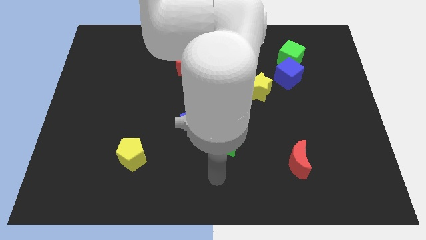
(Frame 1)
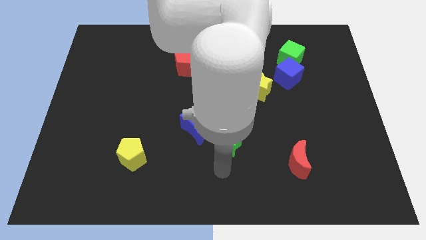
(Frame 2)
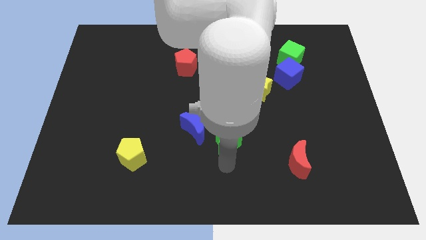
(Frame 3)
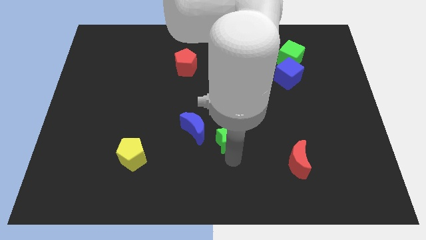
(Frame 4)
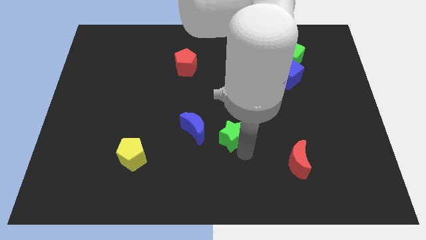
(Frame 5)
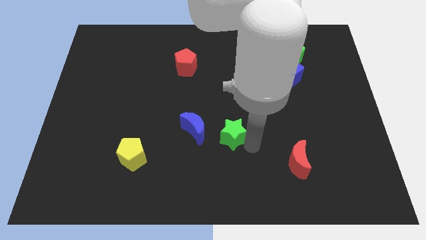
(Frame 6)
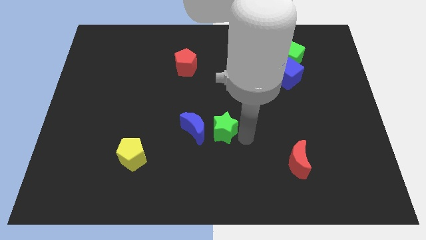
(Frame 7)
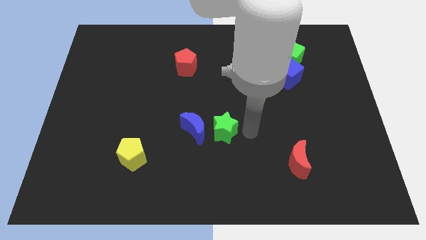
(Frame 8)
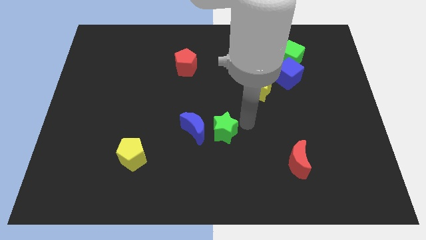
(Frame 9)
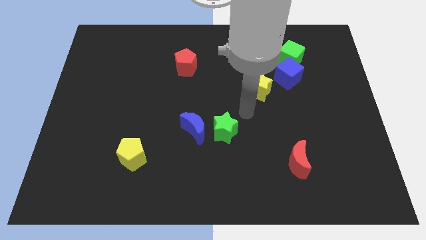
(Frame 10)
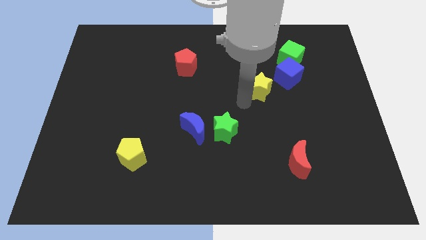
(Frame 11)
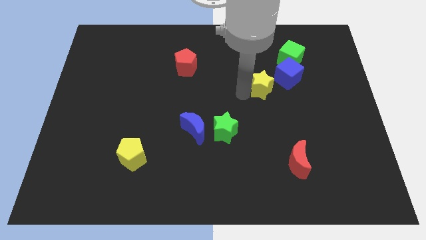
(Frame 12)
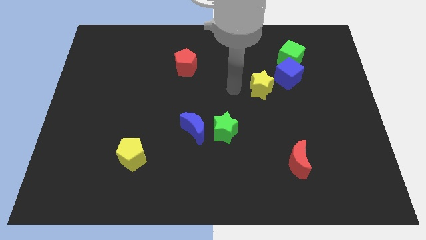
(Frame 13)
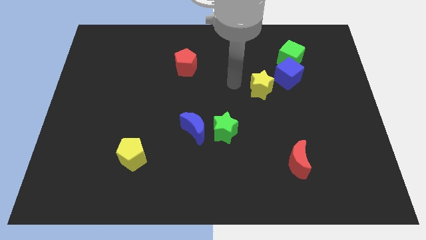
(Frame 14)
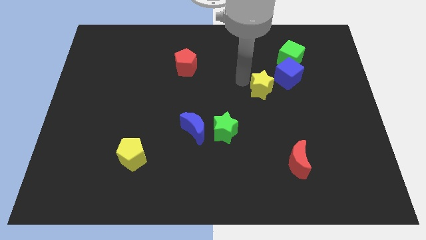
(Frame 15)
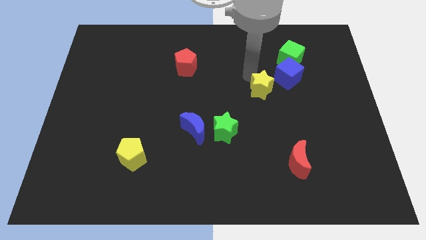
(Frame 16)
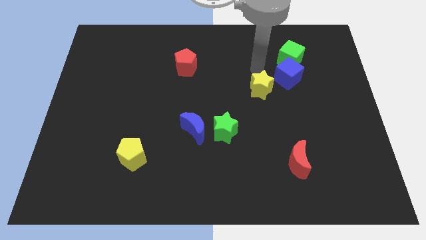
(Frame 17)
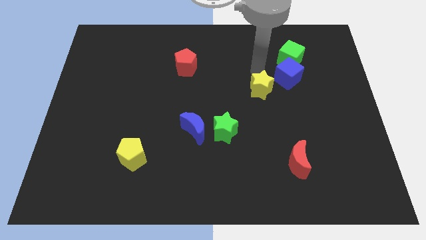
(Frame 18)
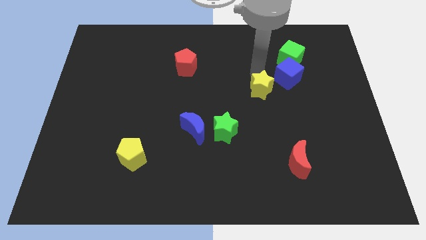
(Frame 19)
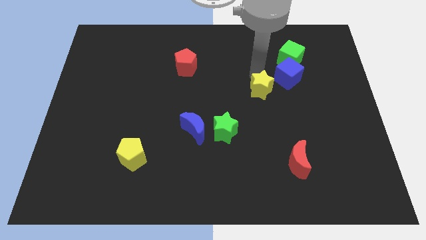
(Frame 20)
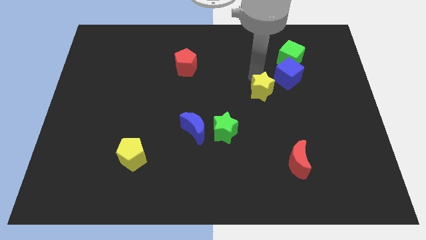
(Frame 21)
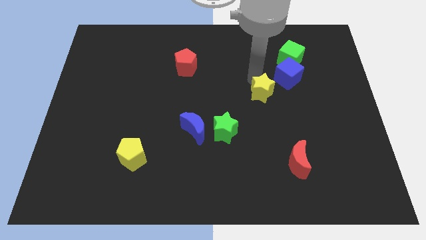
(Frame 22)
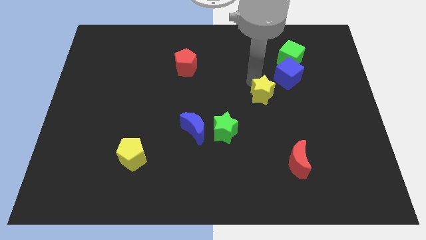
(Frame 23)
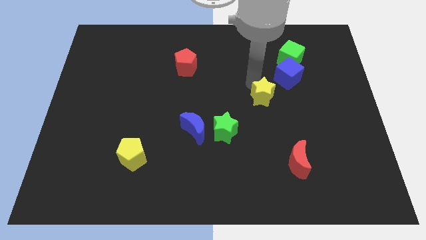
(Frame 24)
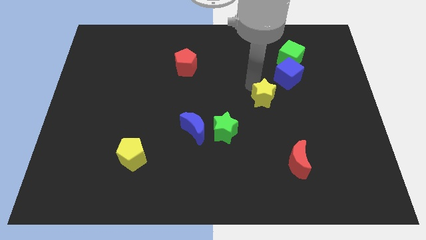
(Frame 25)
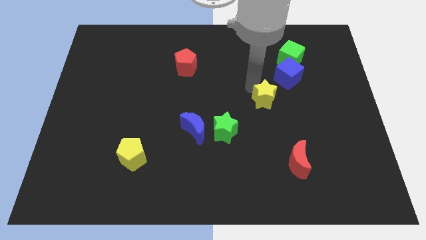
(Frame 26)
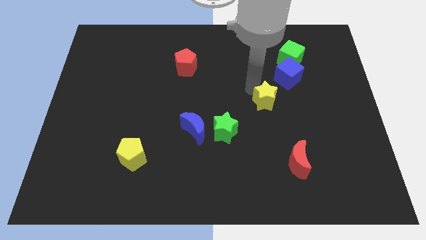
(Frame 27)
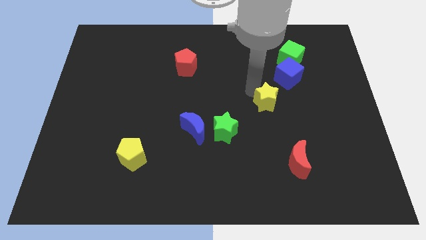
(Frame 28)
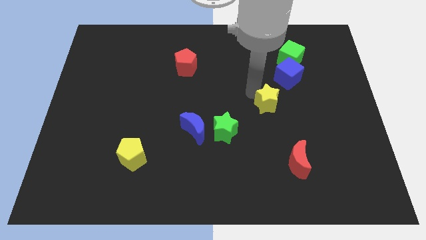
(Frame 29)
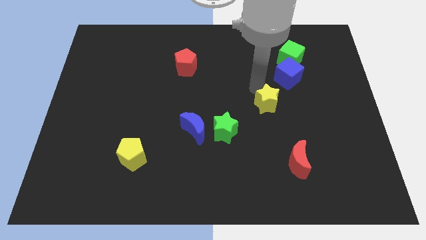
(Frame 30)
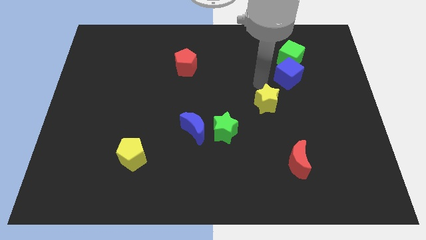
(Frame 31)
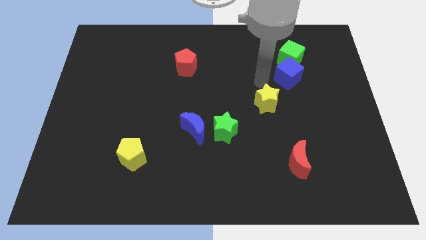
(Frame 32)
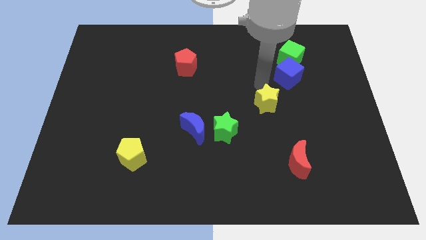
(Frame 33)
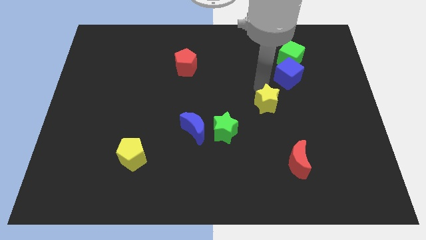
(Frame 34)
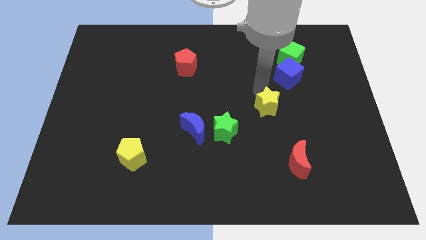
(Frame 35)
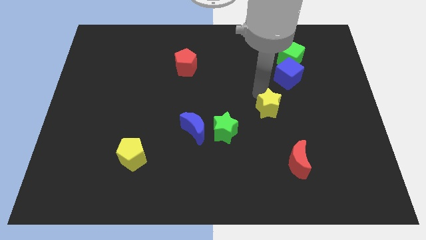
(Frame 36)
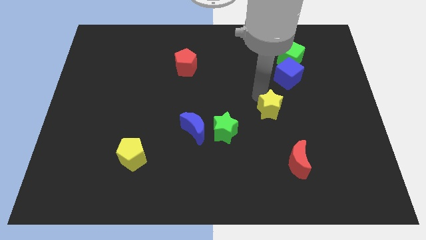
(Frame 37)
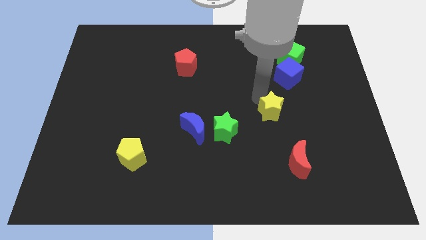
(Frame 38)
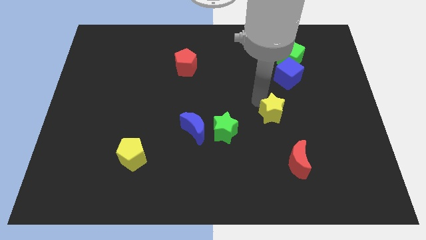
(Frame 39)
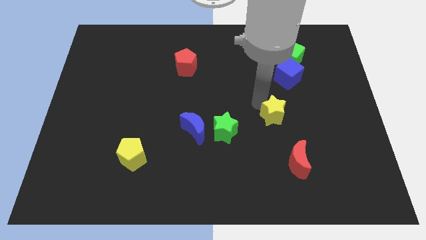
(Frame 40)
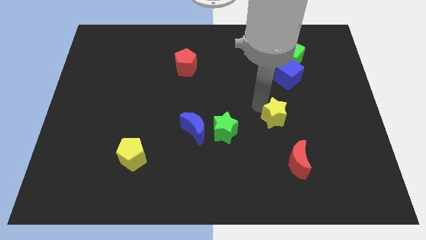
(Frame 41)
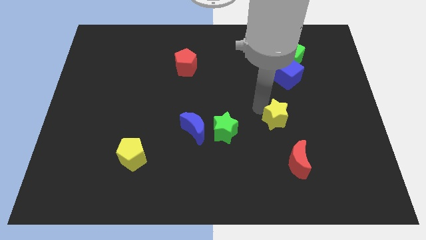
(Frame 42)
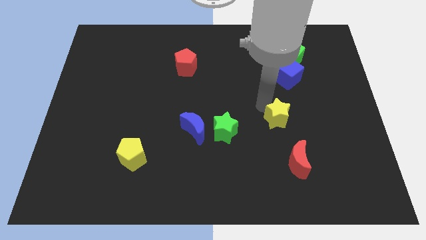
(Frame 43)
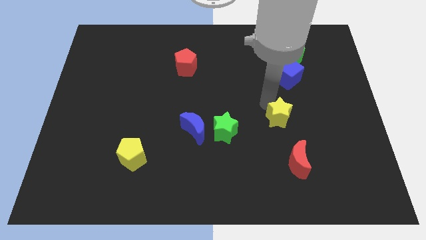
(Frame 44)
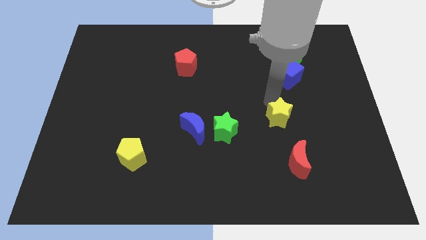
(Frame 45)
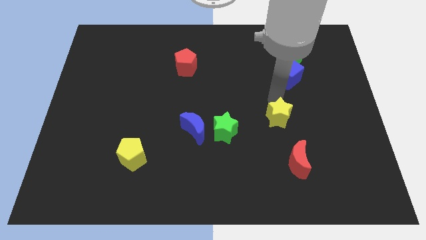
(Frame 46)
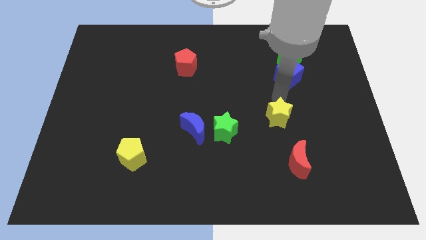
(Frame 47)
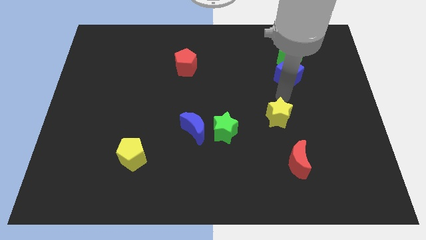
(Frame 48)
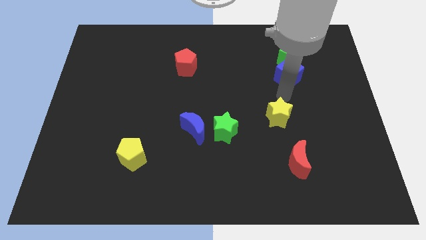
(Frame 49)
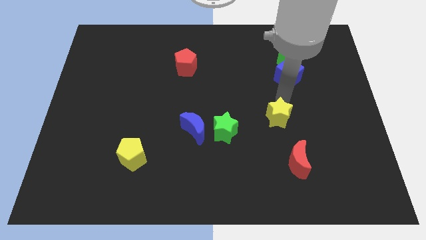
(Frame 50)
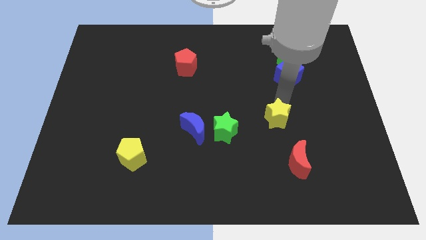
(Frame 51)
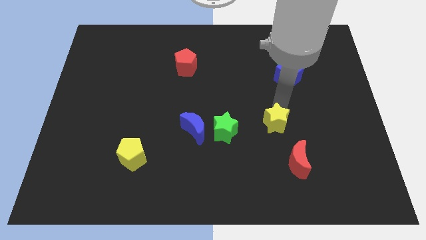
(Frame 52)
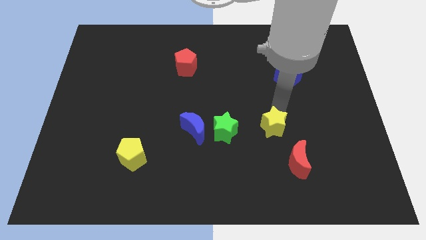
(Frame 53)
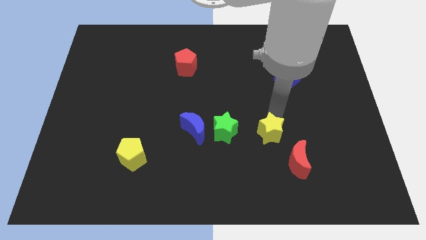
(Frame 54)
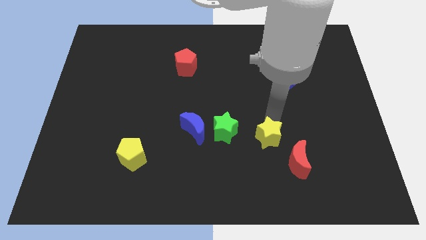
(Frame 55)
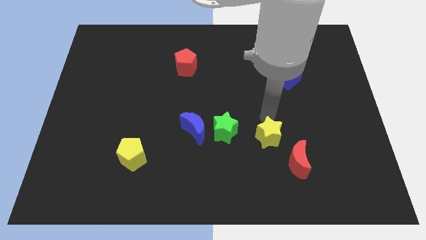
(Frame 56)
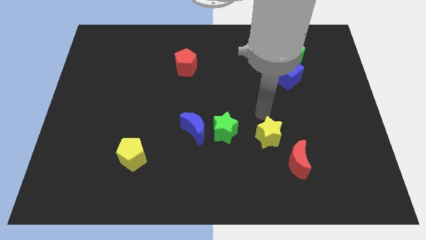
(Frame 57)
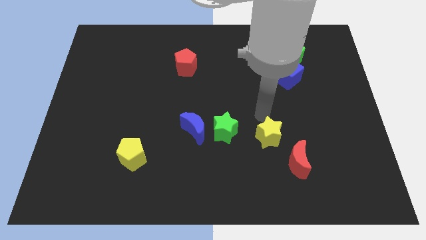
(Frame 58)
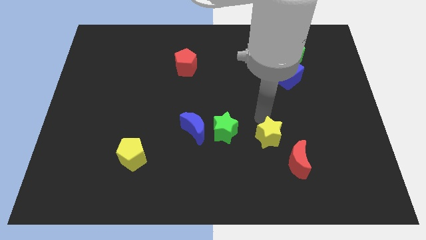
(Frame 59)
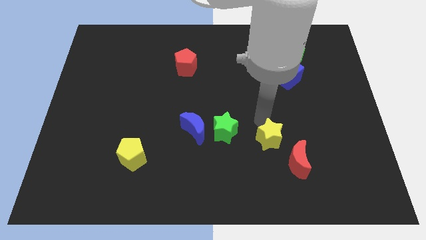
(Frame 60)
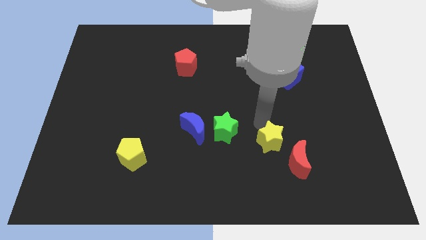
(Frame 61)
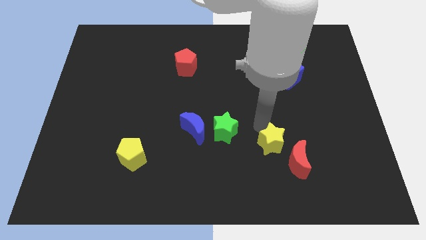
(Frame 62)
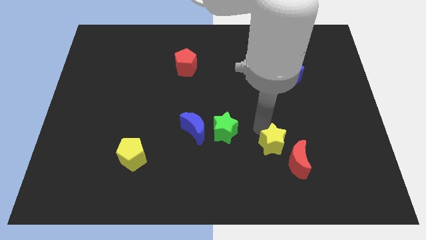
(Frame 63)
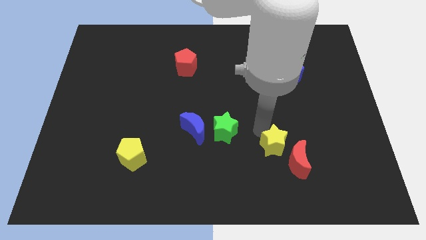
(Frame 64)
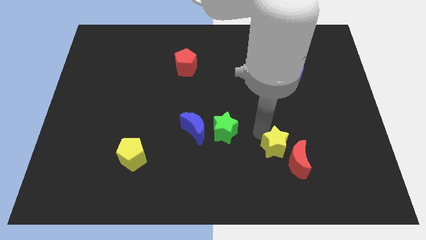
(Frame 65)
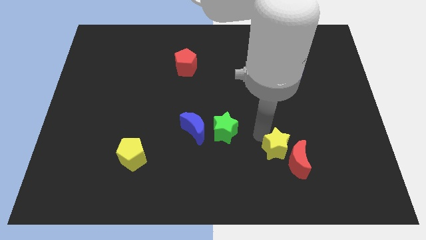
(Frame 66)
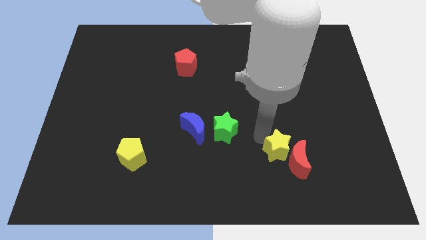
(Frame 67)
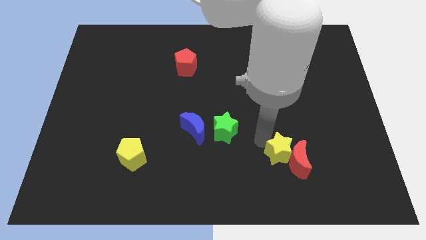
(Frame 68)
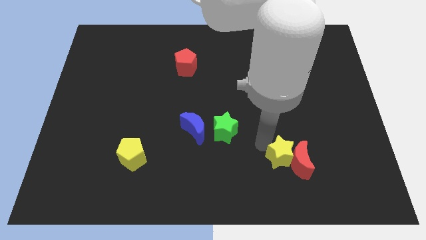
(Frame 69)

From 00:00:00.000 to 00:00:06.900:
put the yellow star diagonally down and to the left of the red moon
